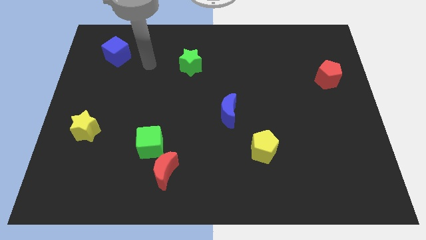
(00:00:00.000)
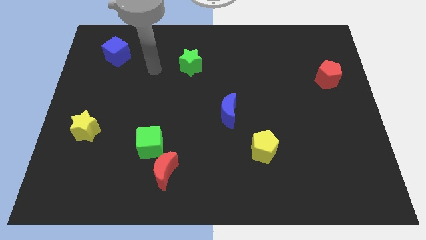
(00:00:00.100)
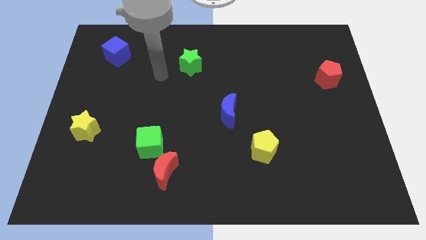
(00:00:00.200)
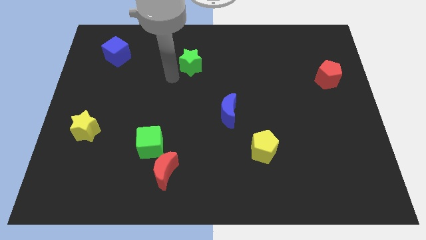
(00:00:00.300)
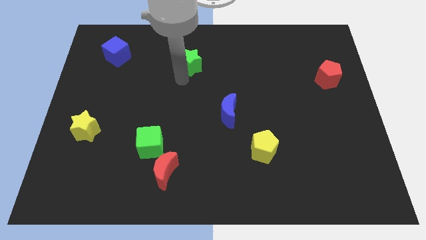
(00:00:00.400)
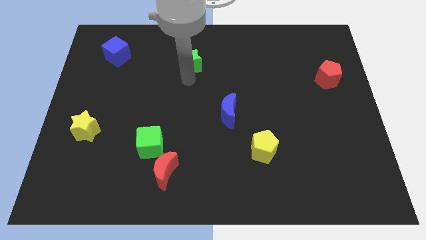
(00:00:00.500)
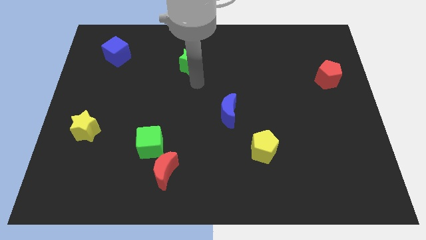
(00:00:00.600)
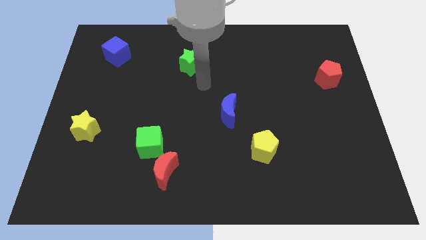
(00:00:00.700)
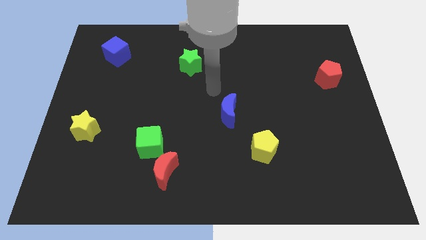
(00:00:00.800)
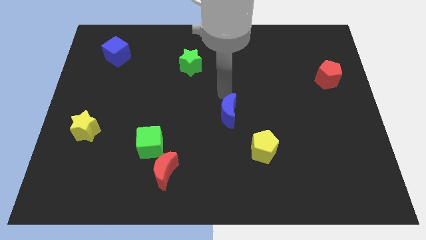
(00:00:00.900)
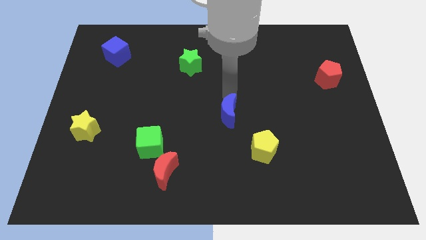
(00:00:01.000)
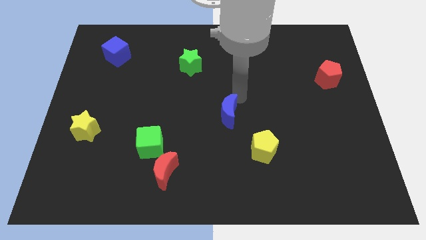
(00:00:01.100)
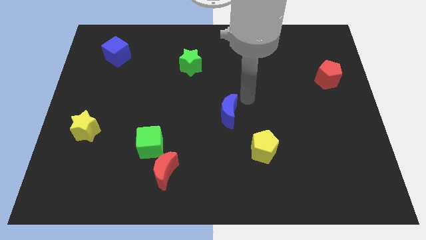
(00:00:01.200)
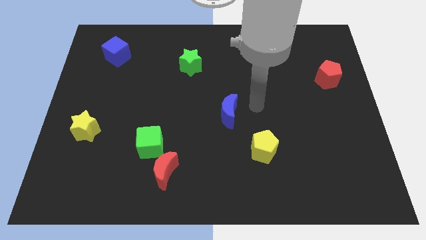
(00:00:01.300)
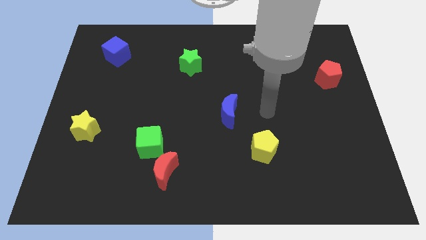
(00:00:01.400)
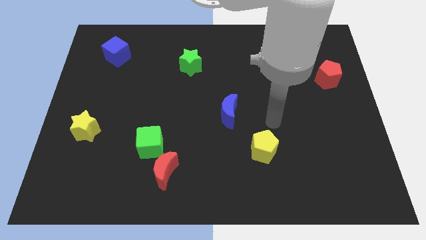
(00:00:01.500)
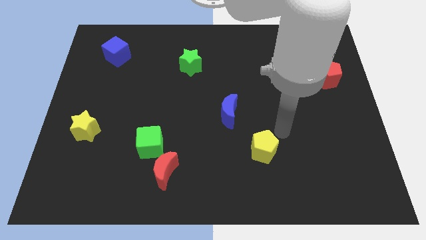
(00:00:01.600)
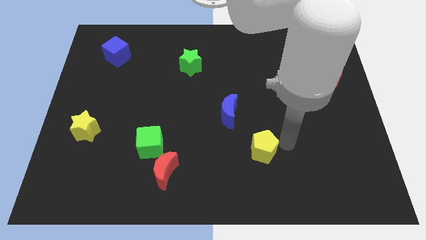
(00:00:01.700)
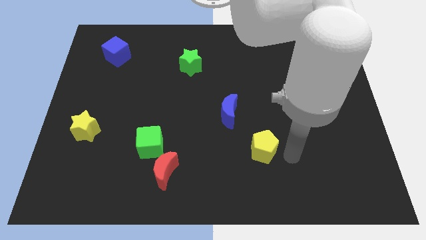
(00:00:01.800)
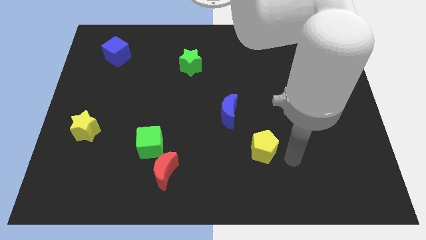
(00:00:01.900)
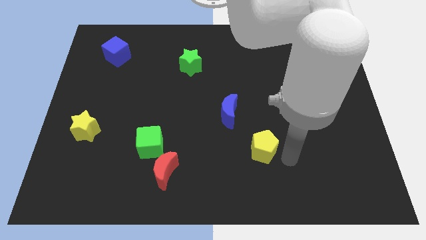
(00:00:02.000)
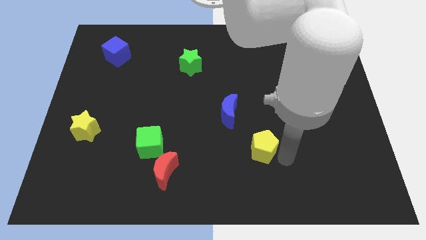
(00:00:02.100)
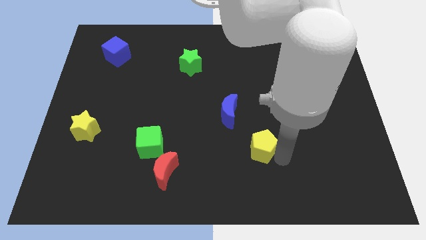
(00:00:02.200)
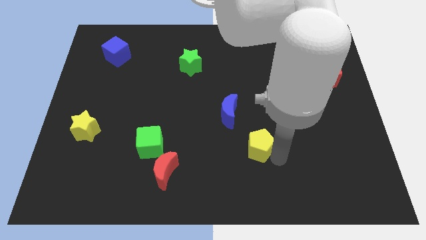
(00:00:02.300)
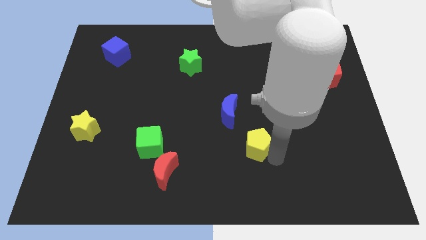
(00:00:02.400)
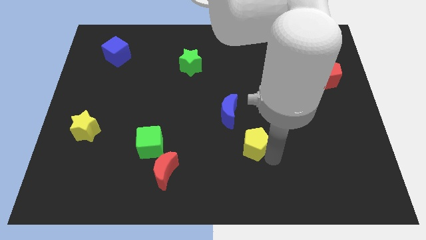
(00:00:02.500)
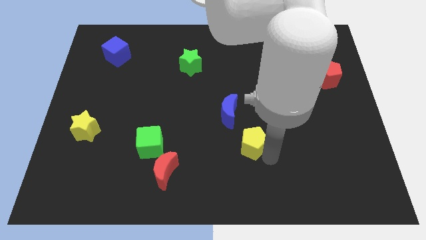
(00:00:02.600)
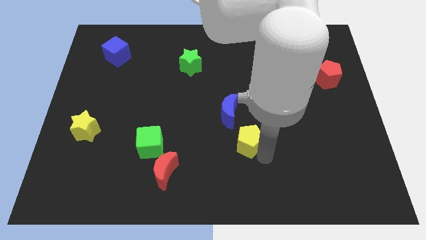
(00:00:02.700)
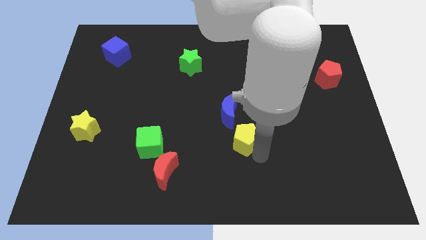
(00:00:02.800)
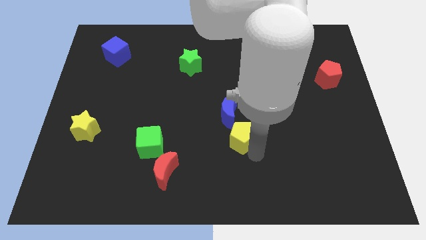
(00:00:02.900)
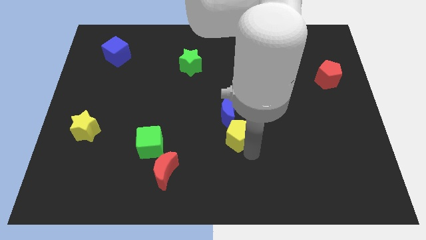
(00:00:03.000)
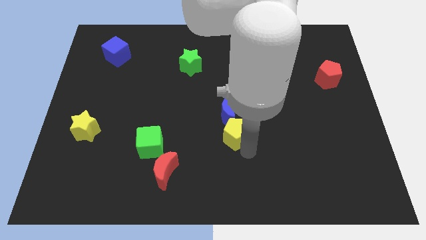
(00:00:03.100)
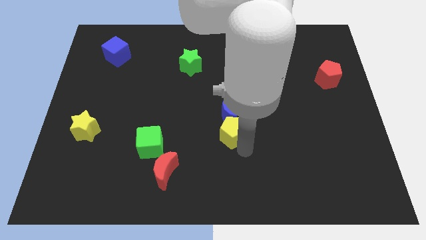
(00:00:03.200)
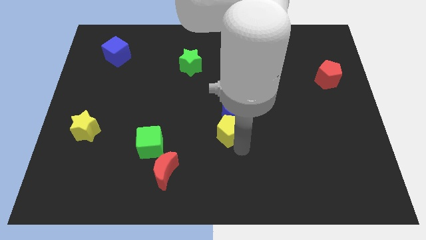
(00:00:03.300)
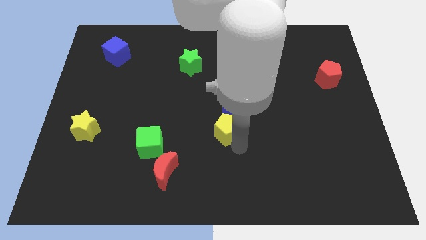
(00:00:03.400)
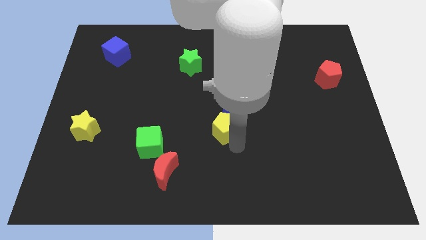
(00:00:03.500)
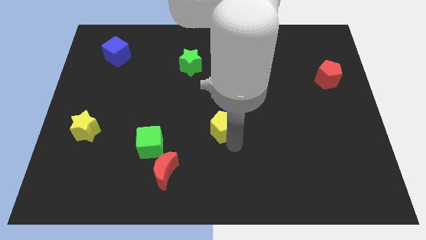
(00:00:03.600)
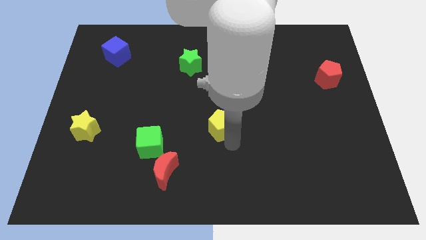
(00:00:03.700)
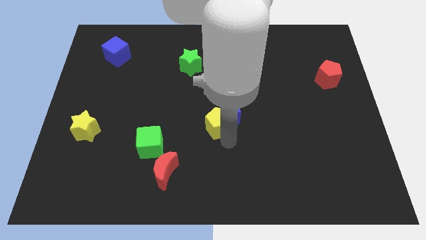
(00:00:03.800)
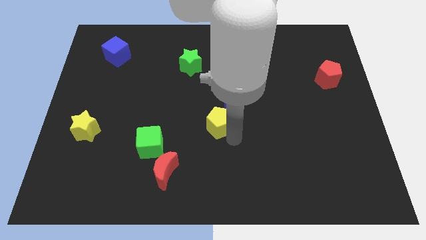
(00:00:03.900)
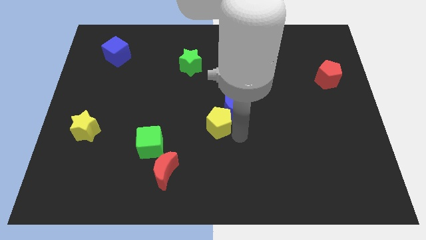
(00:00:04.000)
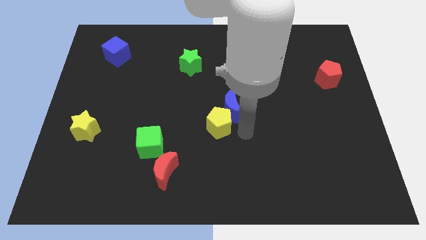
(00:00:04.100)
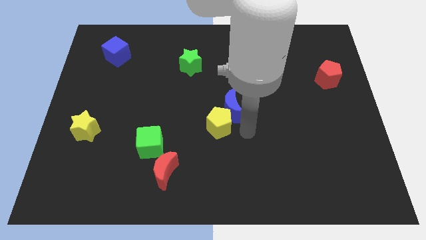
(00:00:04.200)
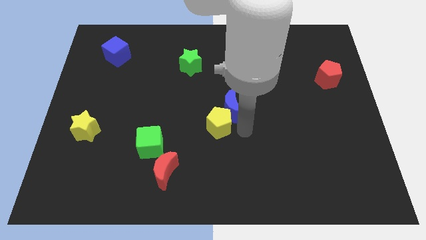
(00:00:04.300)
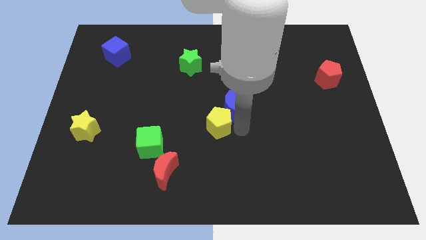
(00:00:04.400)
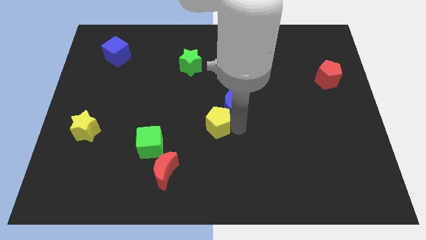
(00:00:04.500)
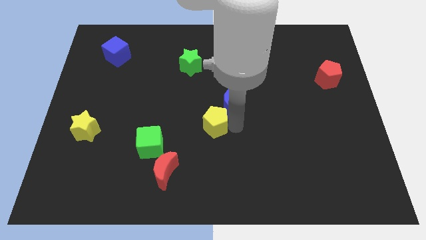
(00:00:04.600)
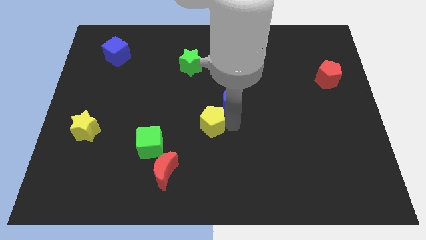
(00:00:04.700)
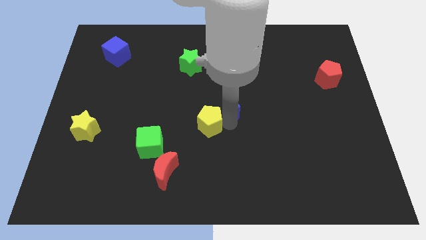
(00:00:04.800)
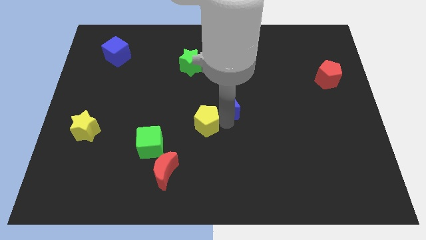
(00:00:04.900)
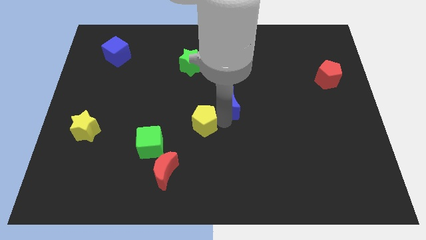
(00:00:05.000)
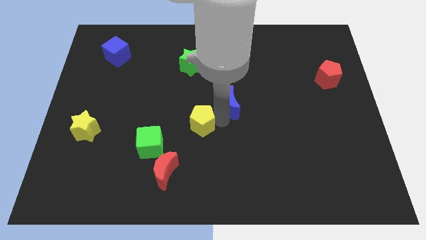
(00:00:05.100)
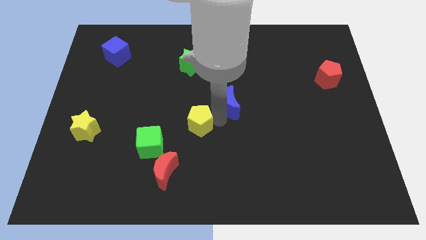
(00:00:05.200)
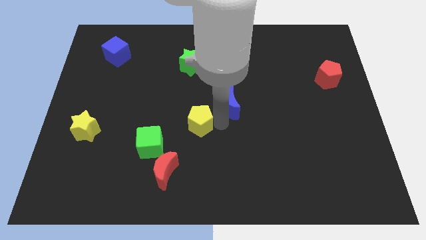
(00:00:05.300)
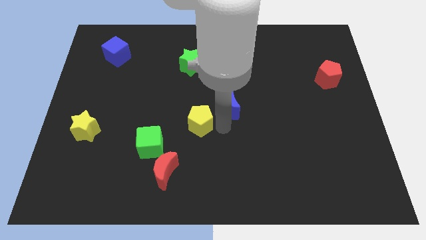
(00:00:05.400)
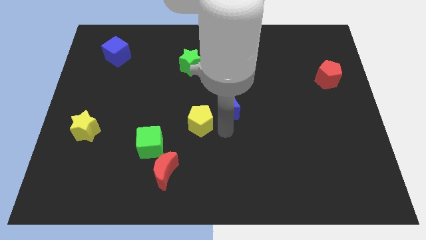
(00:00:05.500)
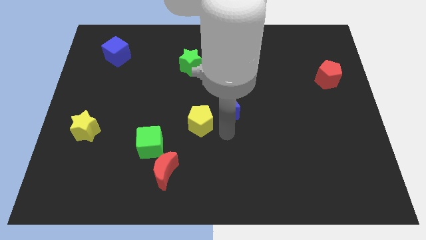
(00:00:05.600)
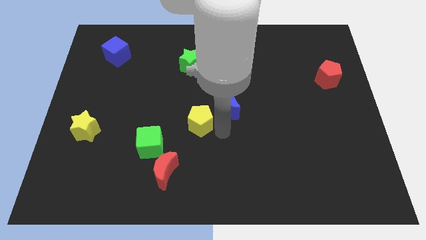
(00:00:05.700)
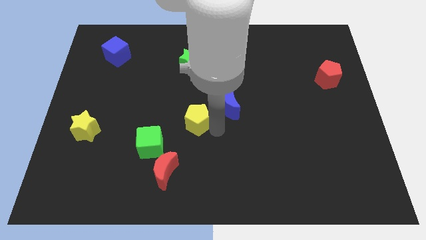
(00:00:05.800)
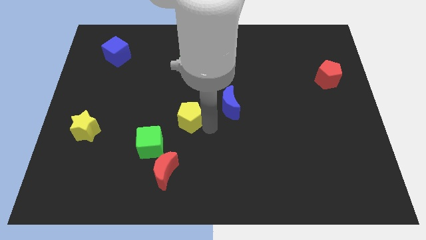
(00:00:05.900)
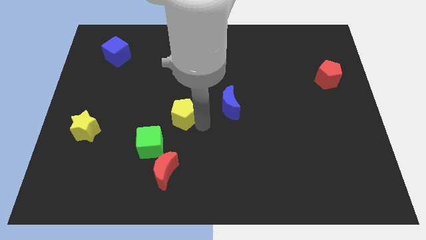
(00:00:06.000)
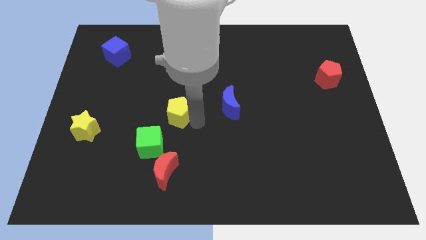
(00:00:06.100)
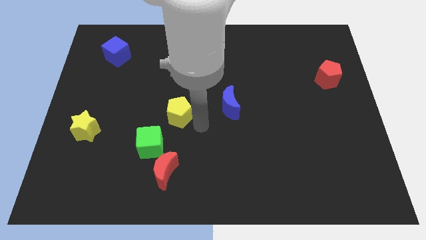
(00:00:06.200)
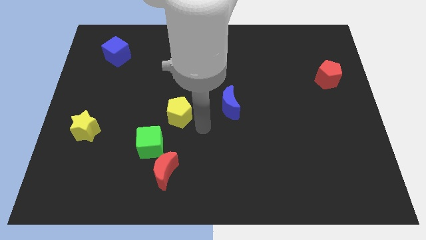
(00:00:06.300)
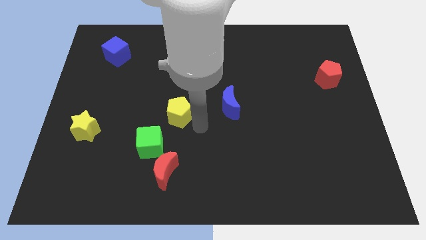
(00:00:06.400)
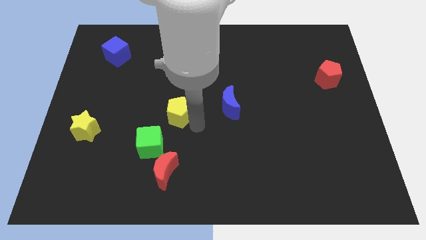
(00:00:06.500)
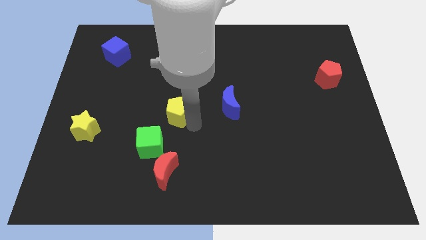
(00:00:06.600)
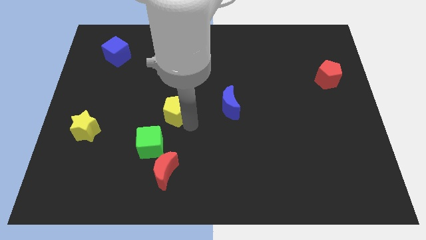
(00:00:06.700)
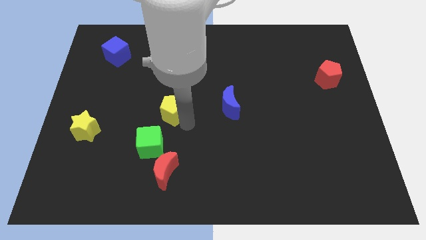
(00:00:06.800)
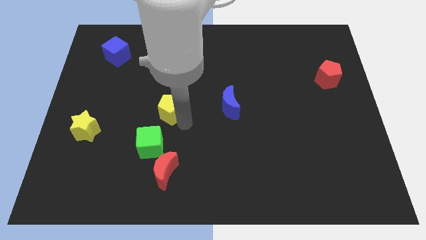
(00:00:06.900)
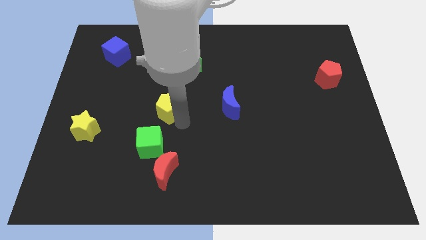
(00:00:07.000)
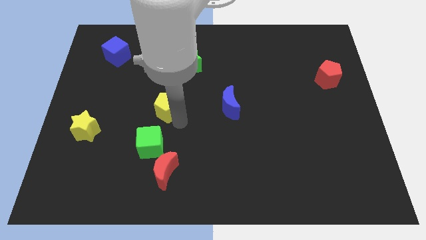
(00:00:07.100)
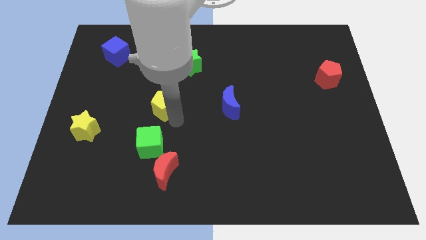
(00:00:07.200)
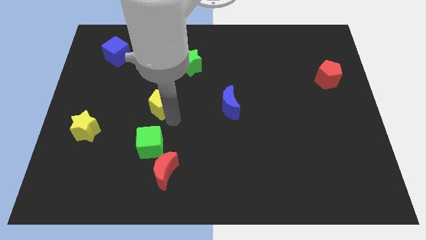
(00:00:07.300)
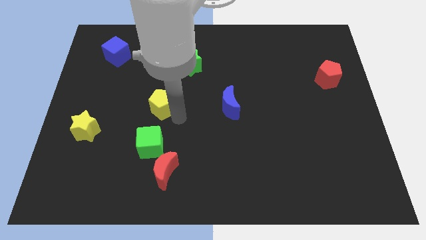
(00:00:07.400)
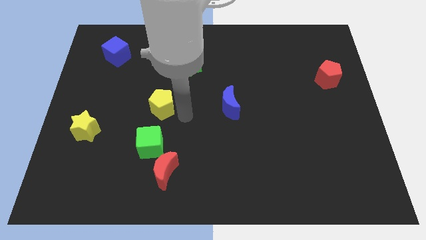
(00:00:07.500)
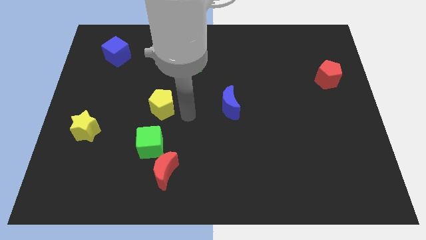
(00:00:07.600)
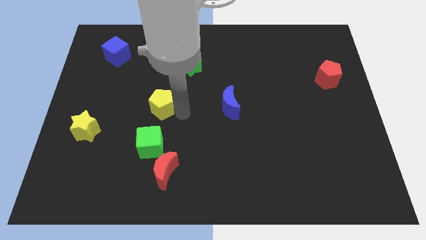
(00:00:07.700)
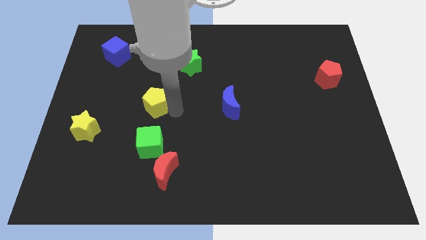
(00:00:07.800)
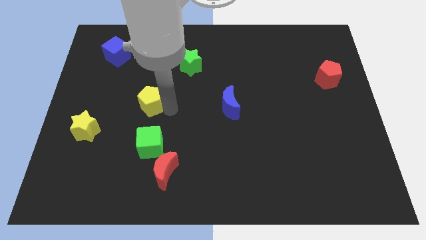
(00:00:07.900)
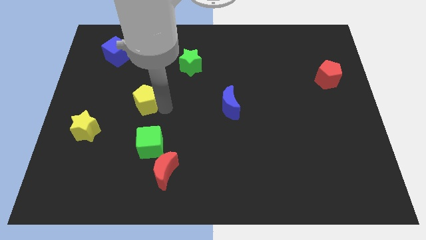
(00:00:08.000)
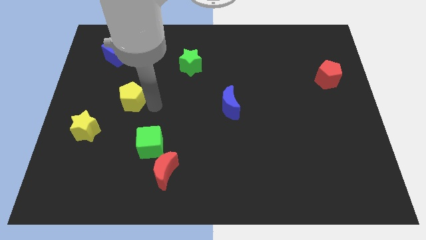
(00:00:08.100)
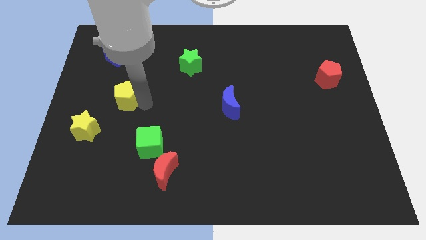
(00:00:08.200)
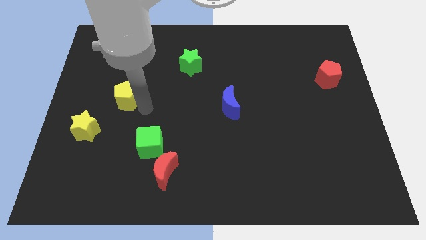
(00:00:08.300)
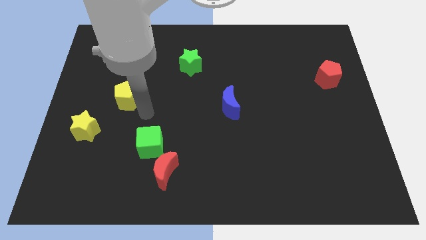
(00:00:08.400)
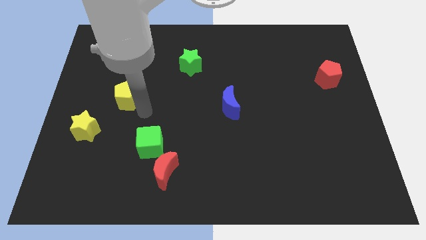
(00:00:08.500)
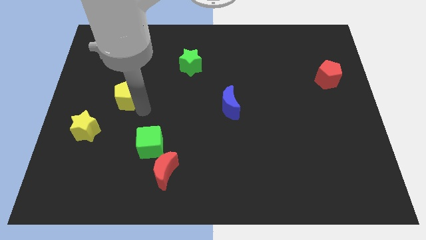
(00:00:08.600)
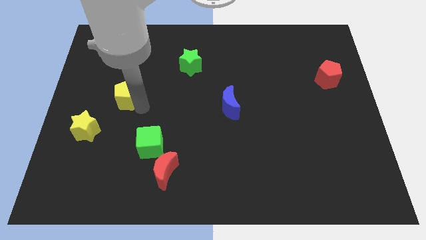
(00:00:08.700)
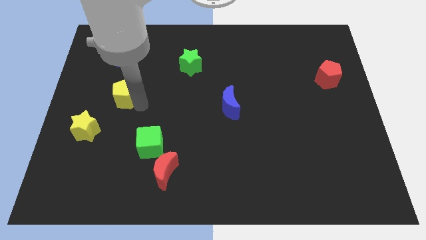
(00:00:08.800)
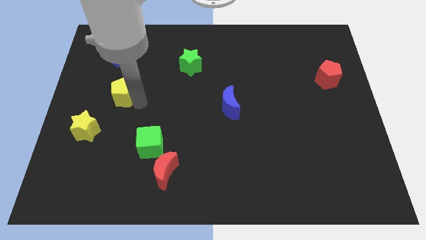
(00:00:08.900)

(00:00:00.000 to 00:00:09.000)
move the yellow pentagon below the blue cube
